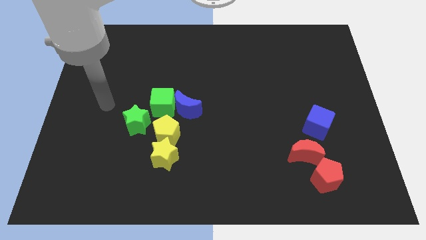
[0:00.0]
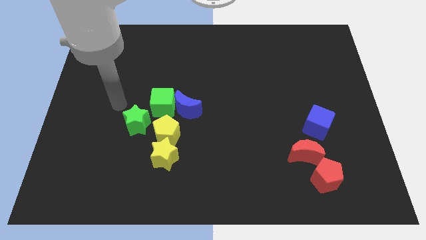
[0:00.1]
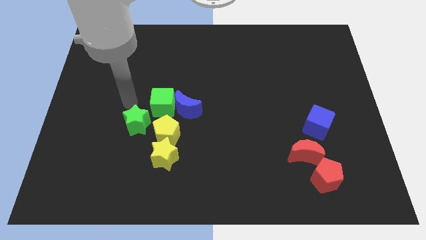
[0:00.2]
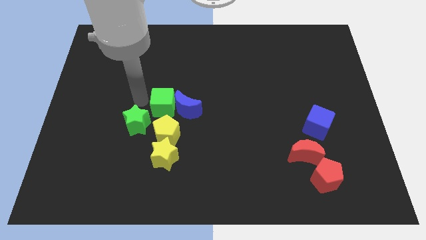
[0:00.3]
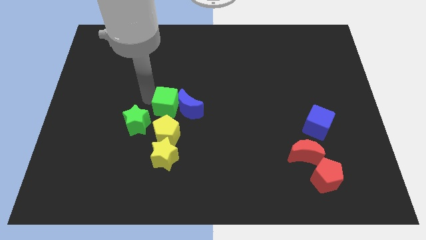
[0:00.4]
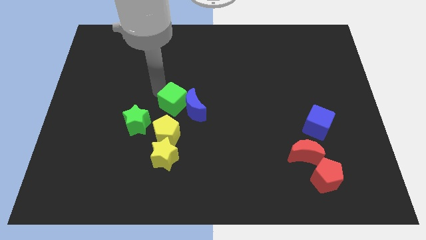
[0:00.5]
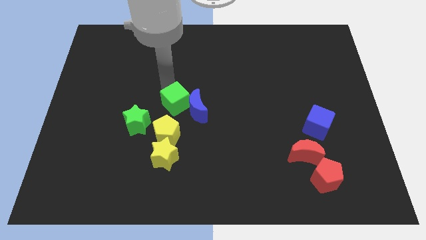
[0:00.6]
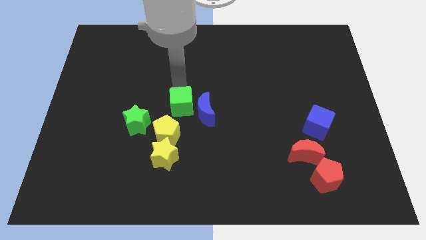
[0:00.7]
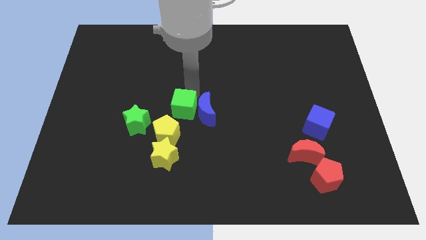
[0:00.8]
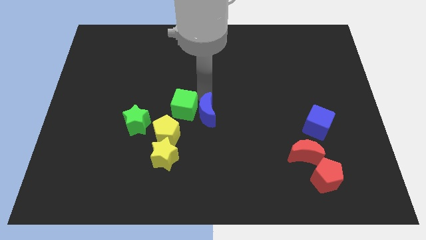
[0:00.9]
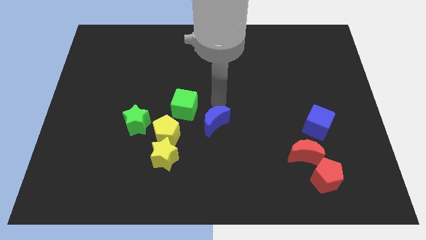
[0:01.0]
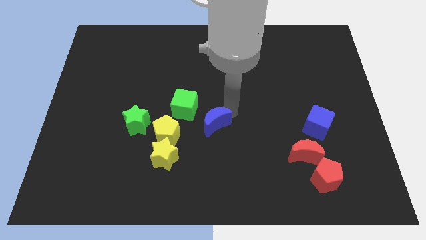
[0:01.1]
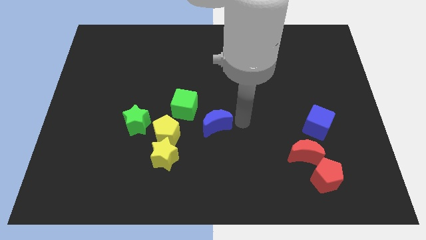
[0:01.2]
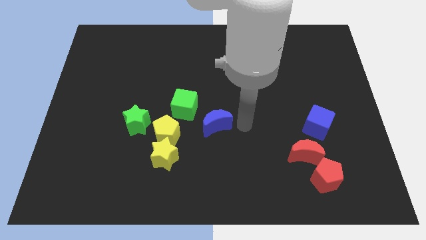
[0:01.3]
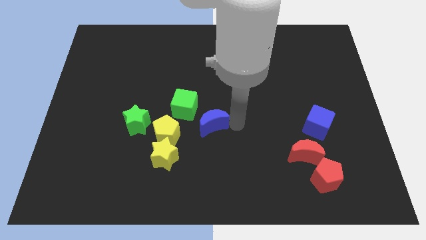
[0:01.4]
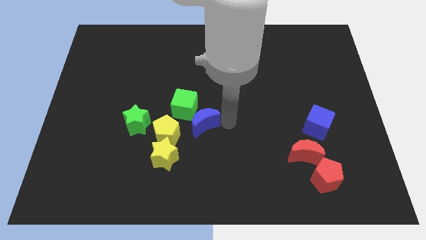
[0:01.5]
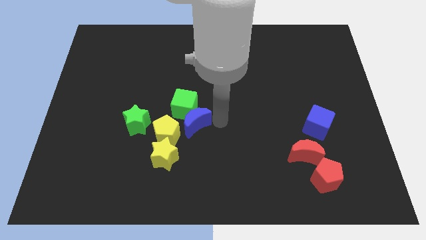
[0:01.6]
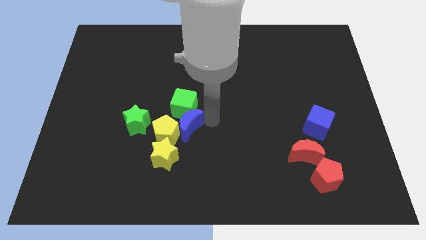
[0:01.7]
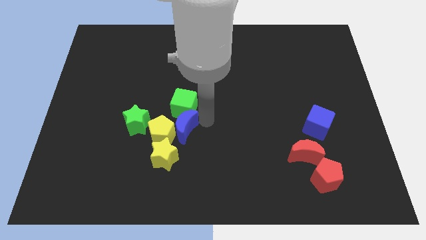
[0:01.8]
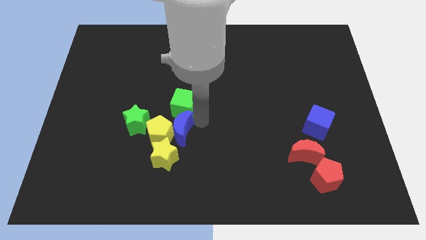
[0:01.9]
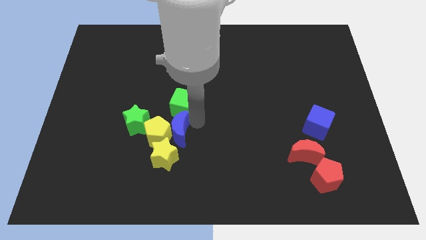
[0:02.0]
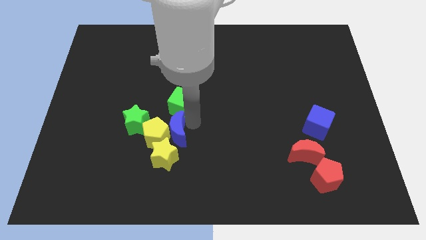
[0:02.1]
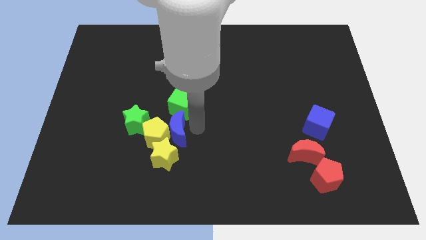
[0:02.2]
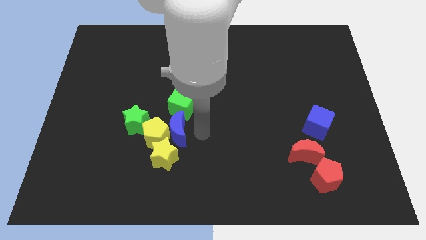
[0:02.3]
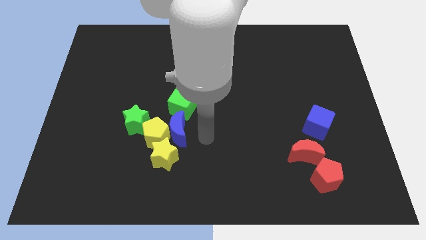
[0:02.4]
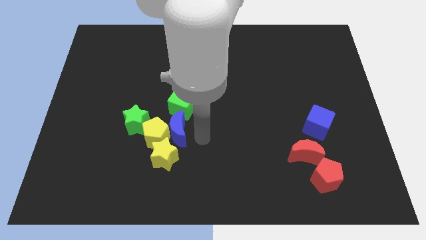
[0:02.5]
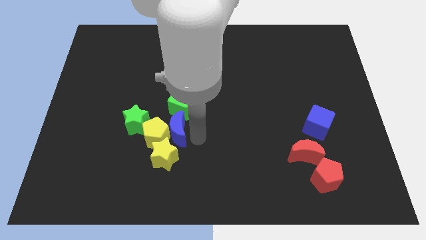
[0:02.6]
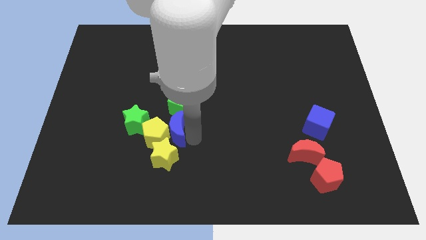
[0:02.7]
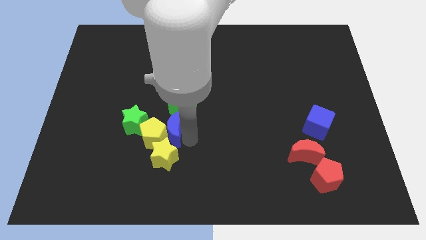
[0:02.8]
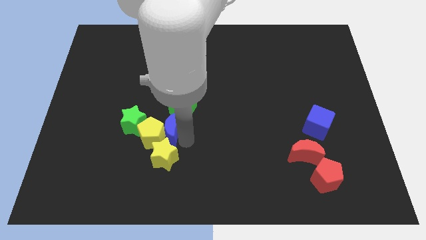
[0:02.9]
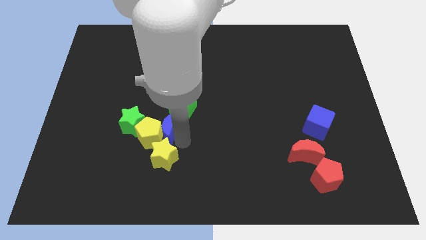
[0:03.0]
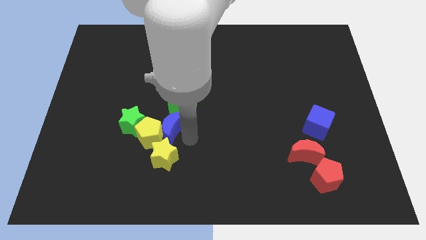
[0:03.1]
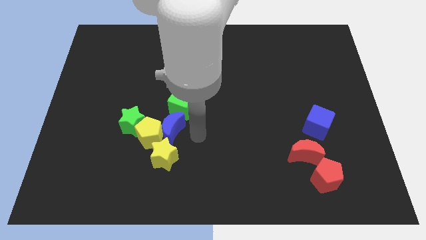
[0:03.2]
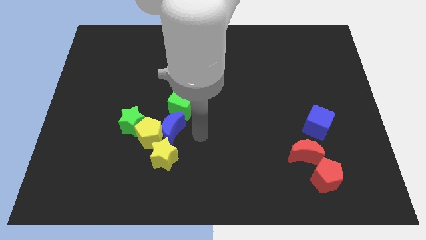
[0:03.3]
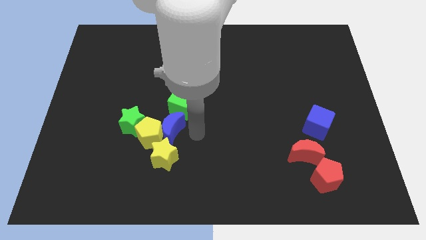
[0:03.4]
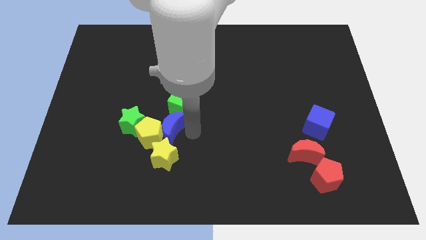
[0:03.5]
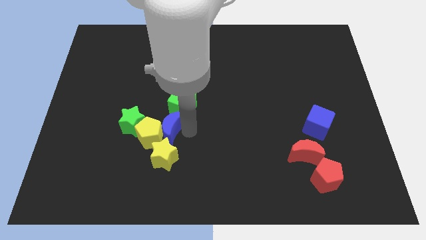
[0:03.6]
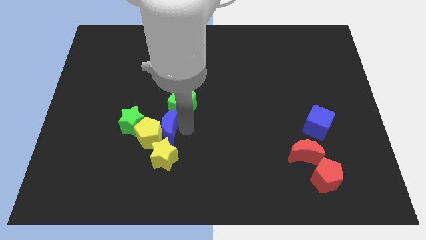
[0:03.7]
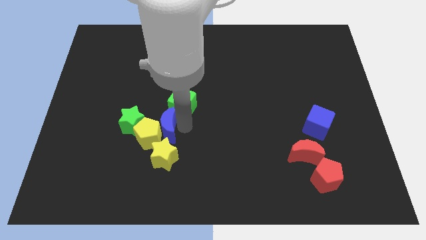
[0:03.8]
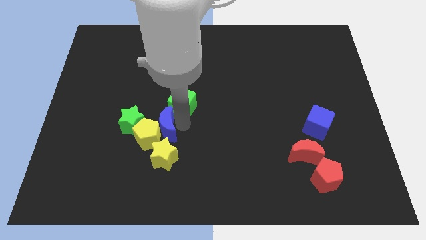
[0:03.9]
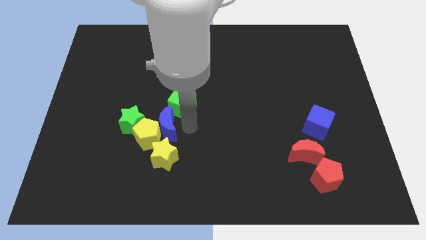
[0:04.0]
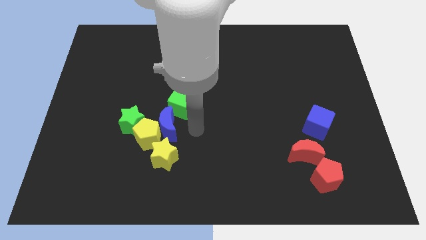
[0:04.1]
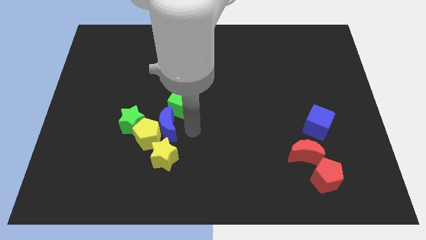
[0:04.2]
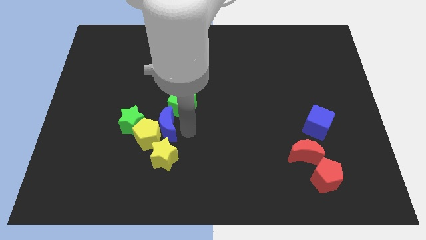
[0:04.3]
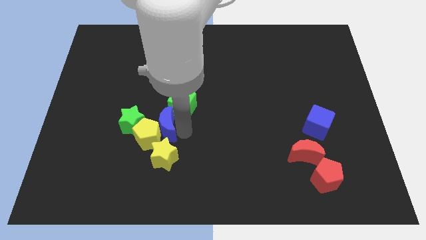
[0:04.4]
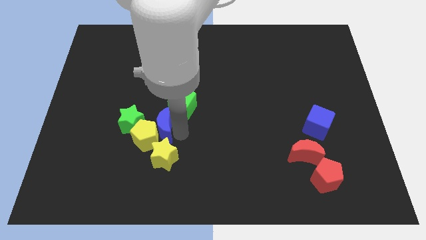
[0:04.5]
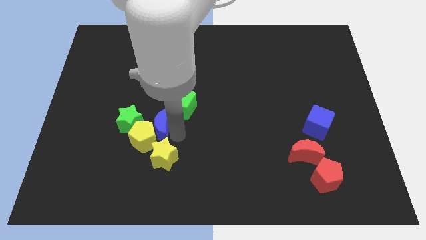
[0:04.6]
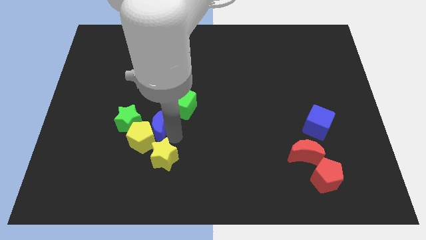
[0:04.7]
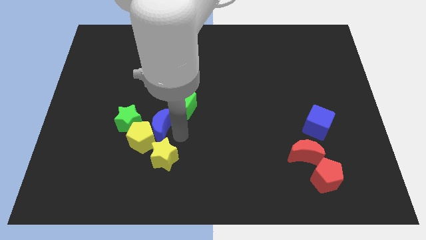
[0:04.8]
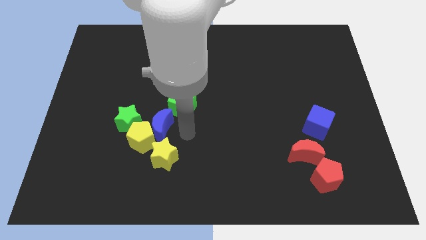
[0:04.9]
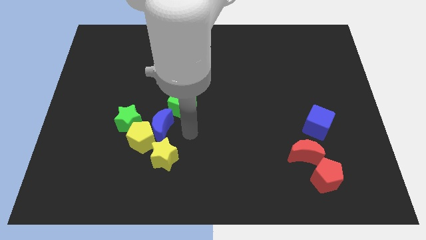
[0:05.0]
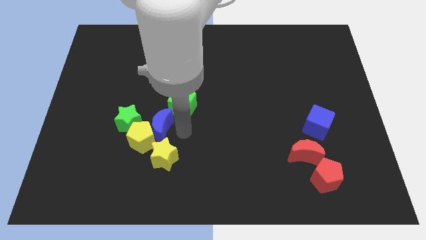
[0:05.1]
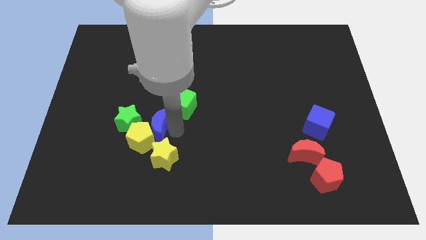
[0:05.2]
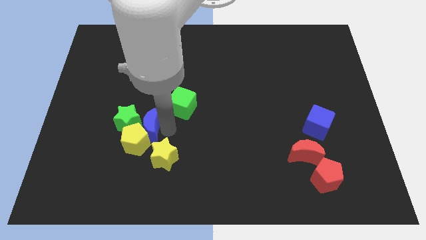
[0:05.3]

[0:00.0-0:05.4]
slide the blue moon to the green star

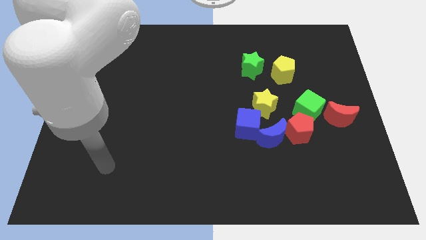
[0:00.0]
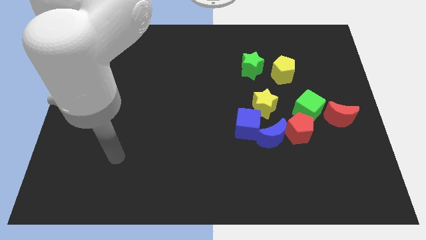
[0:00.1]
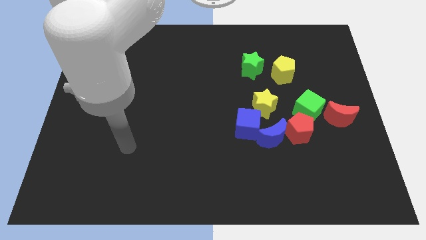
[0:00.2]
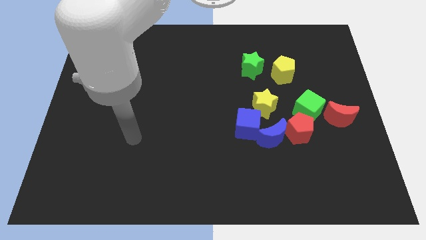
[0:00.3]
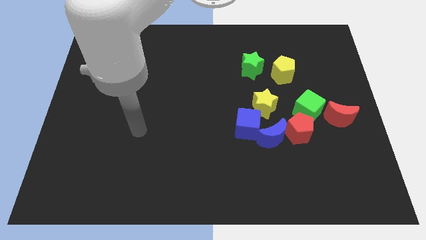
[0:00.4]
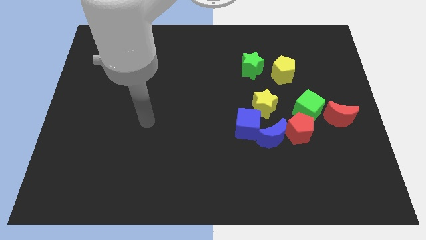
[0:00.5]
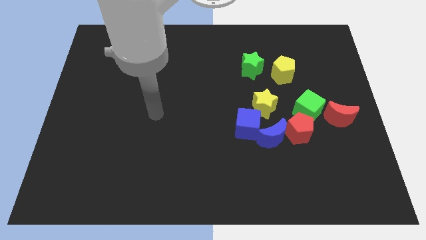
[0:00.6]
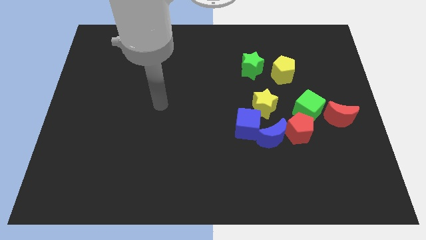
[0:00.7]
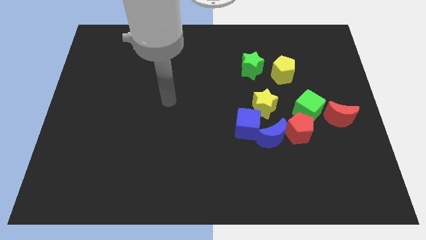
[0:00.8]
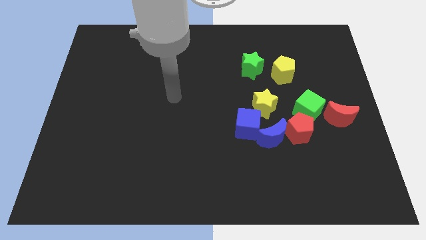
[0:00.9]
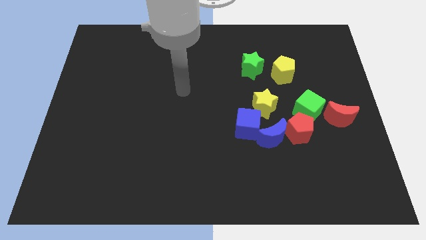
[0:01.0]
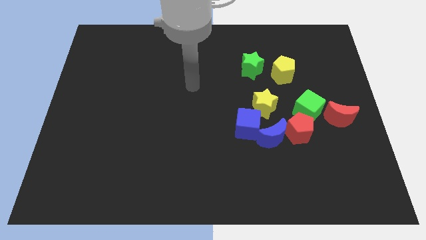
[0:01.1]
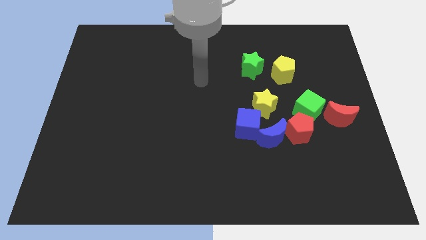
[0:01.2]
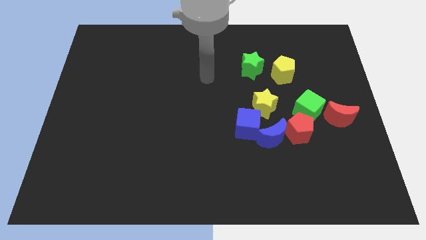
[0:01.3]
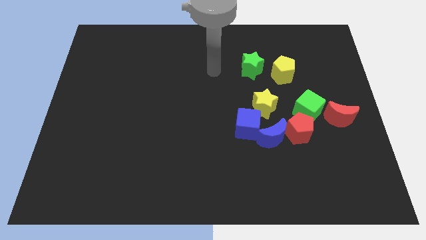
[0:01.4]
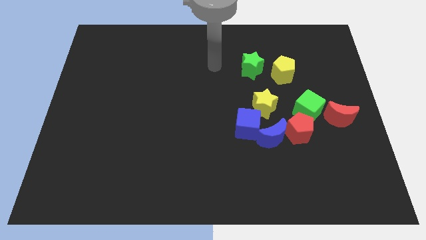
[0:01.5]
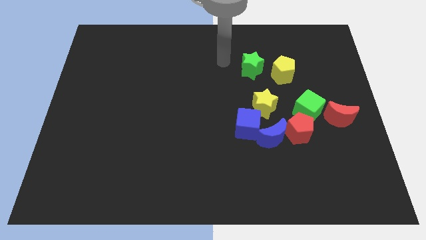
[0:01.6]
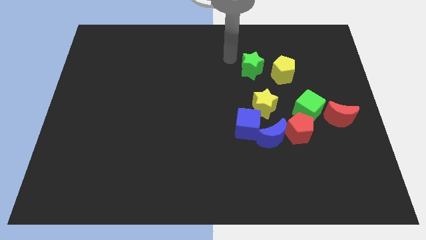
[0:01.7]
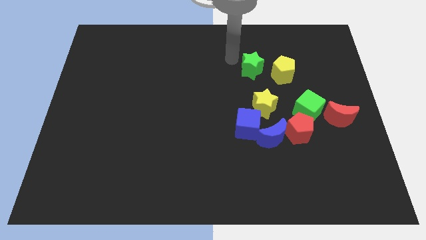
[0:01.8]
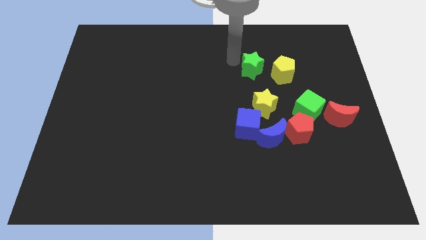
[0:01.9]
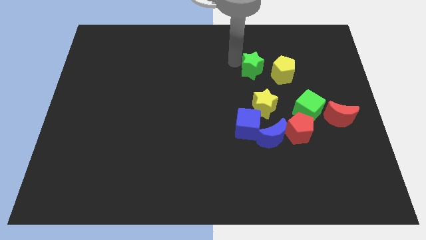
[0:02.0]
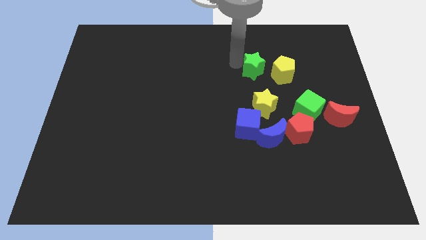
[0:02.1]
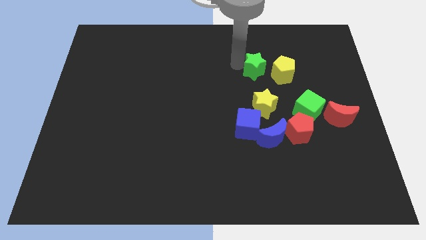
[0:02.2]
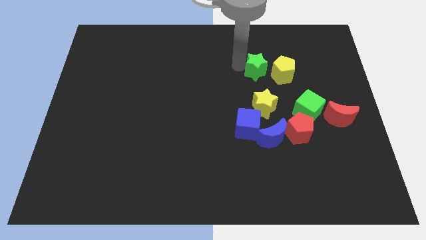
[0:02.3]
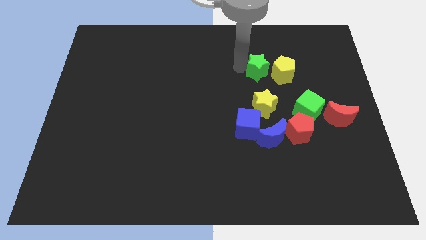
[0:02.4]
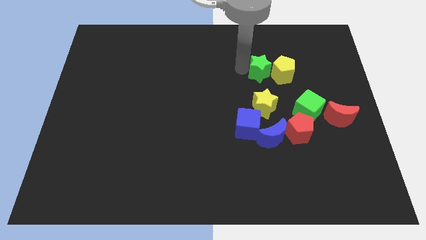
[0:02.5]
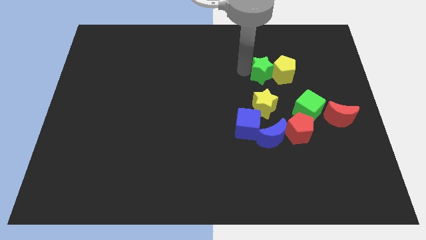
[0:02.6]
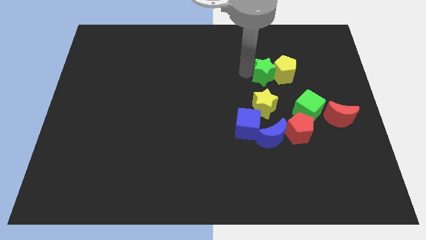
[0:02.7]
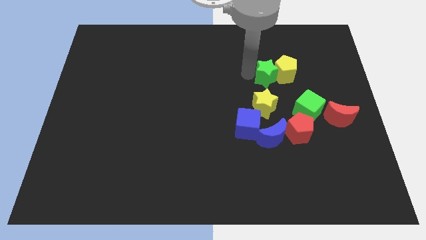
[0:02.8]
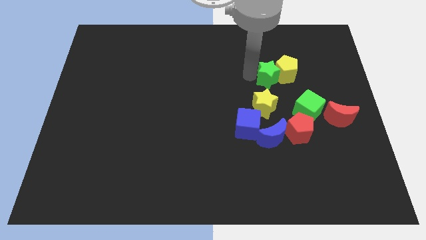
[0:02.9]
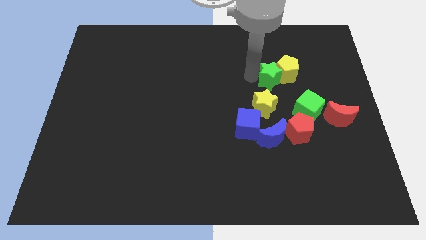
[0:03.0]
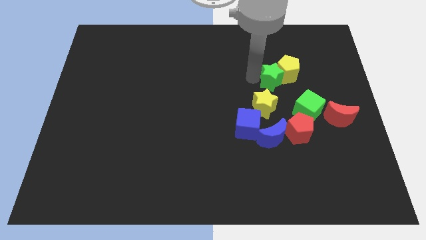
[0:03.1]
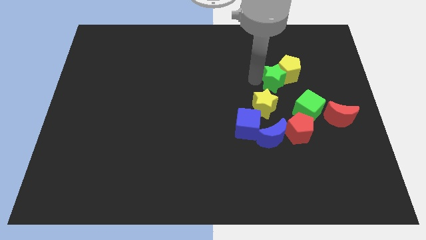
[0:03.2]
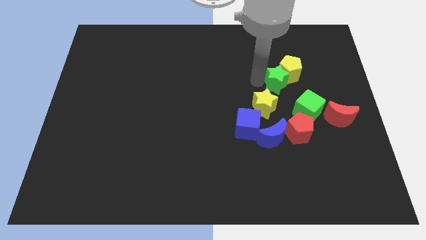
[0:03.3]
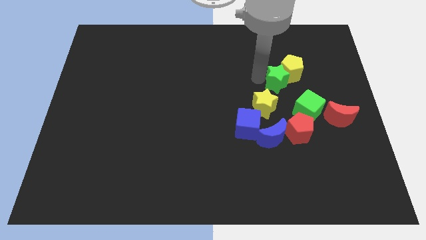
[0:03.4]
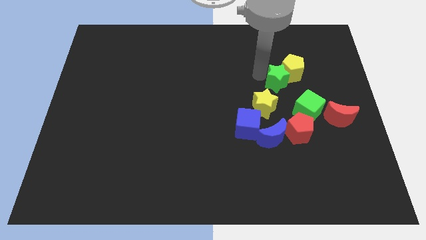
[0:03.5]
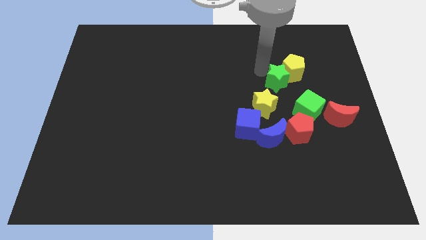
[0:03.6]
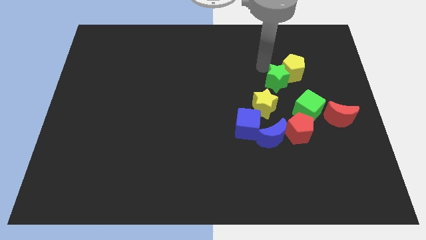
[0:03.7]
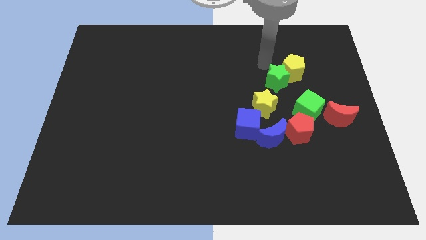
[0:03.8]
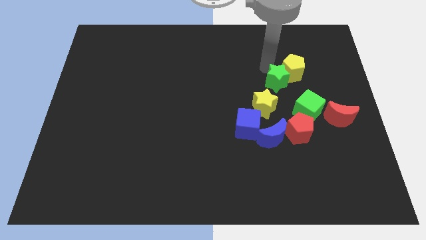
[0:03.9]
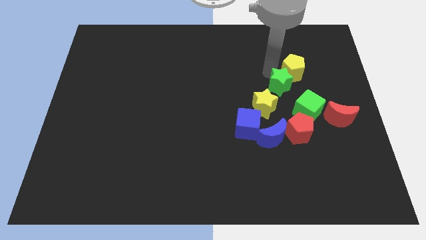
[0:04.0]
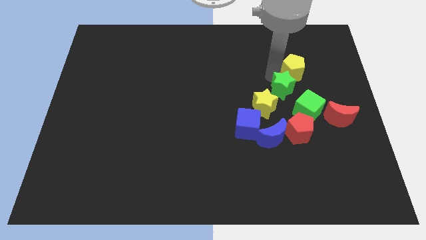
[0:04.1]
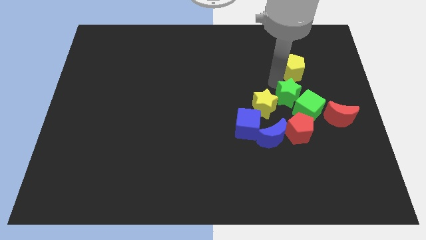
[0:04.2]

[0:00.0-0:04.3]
push the green star next to the green cube
